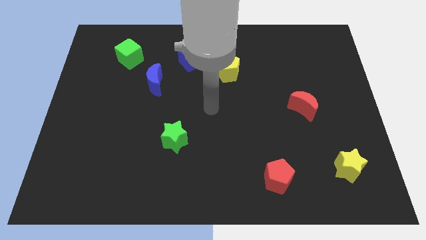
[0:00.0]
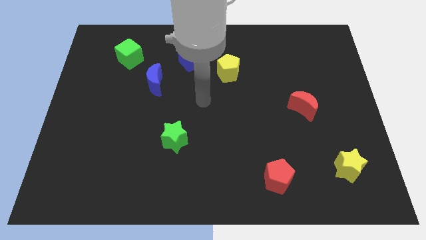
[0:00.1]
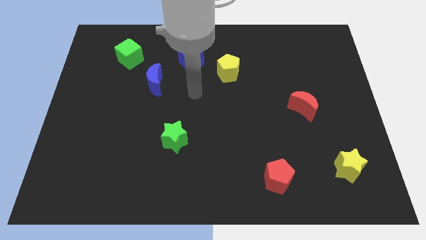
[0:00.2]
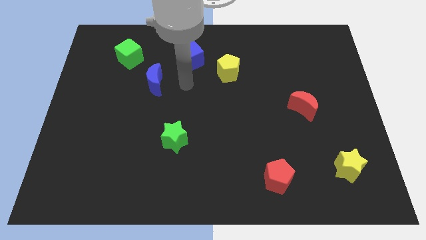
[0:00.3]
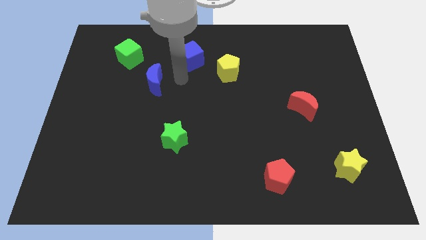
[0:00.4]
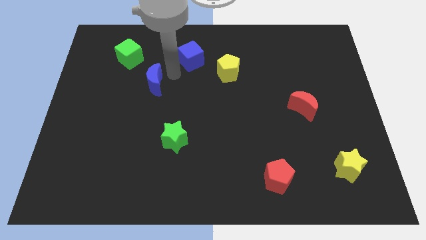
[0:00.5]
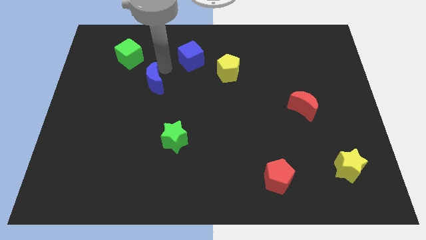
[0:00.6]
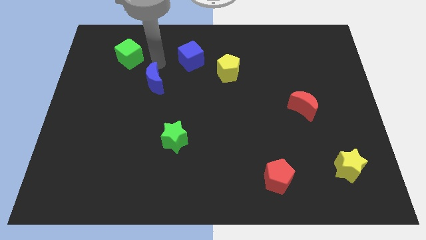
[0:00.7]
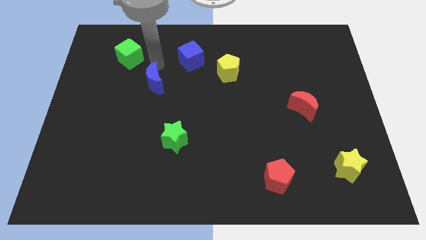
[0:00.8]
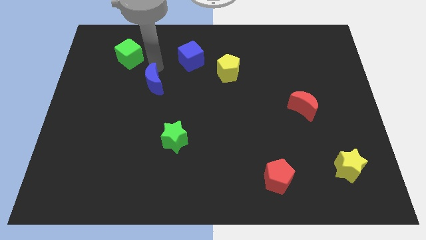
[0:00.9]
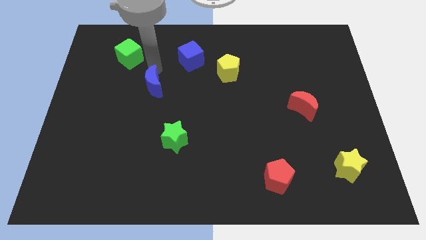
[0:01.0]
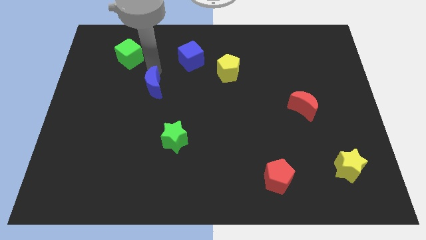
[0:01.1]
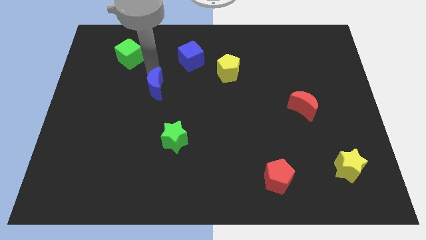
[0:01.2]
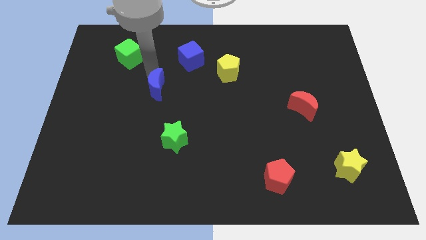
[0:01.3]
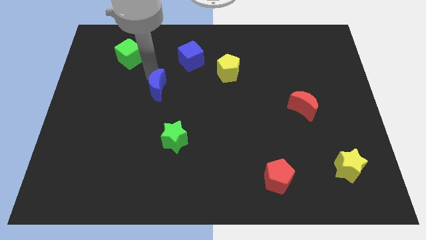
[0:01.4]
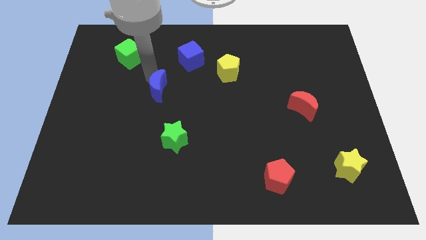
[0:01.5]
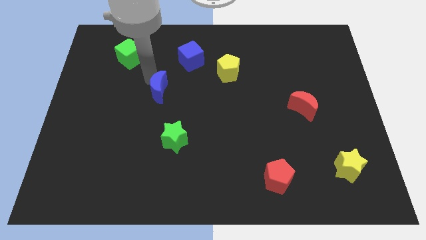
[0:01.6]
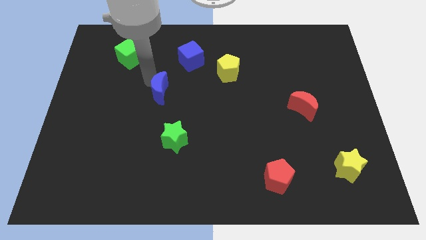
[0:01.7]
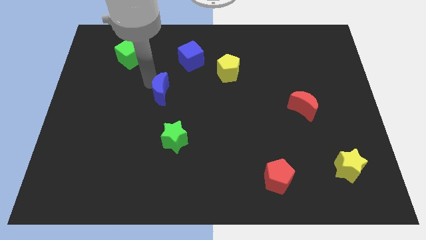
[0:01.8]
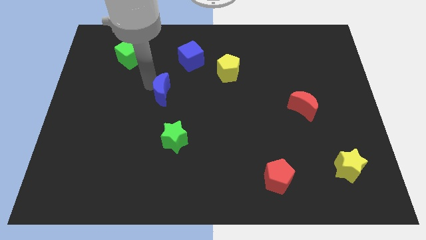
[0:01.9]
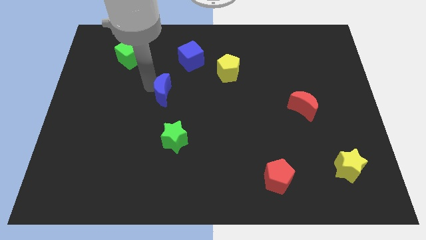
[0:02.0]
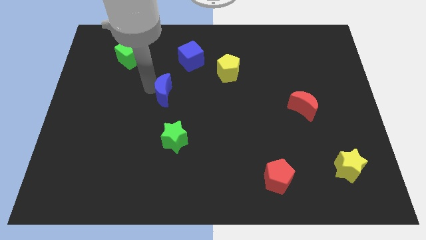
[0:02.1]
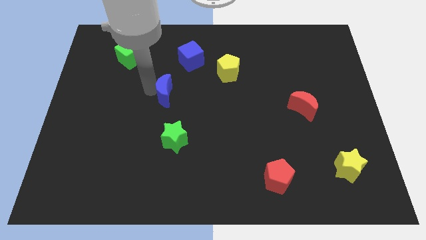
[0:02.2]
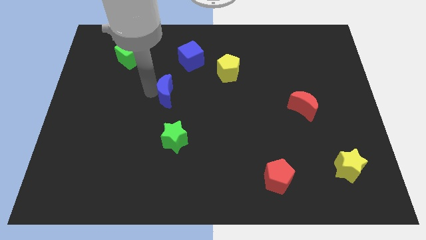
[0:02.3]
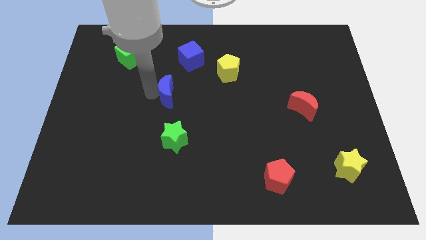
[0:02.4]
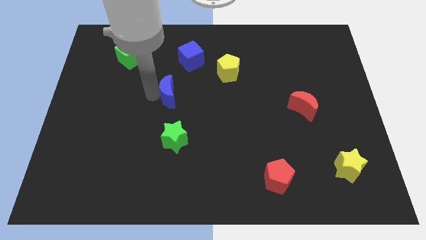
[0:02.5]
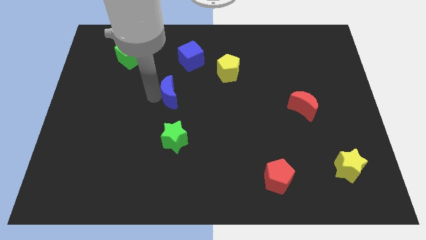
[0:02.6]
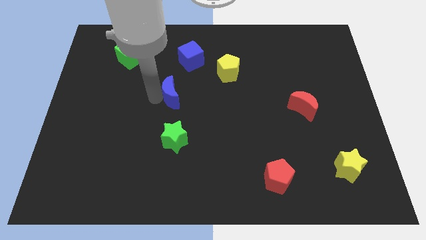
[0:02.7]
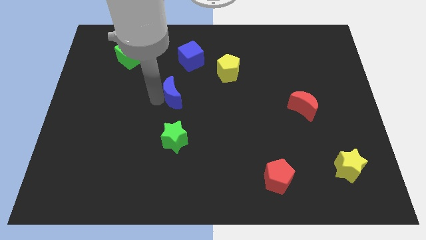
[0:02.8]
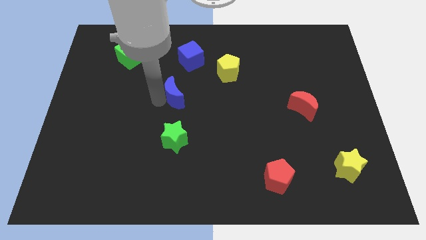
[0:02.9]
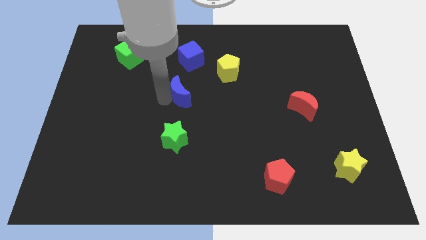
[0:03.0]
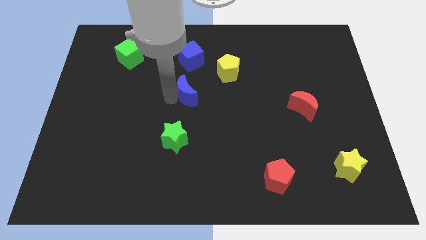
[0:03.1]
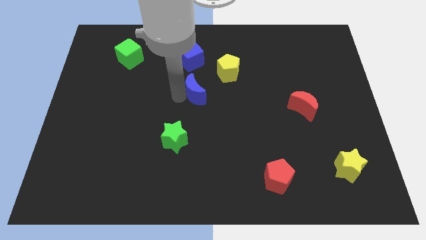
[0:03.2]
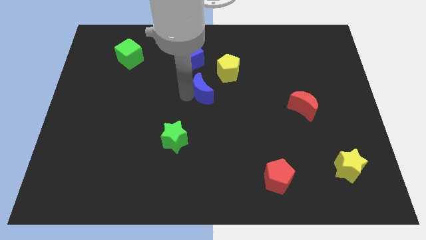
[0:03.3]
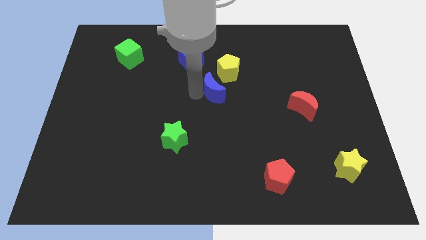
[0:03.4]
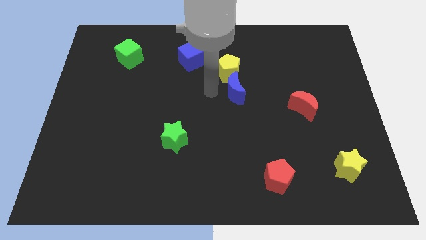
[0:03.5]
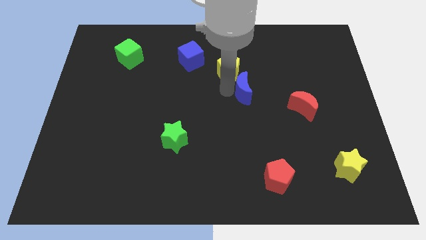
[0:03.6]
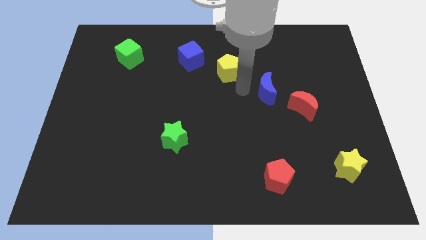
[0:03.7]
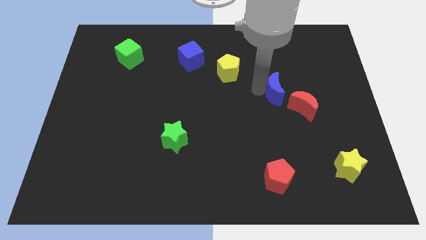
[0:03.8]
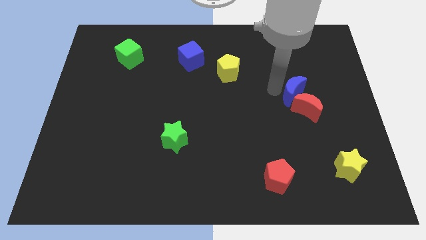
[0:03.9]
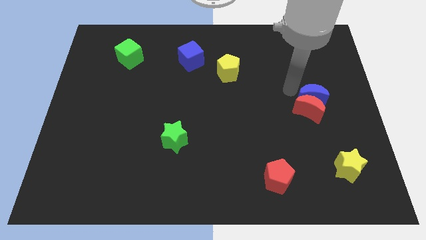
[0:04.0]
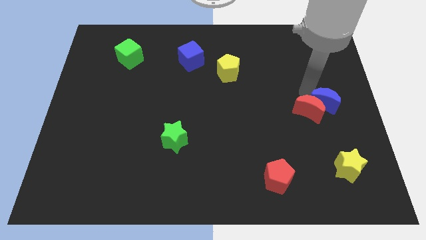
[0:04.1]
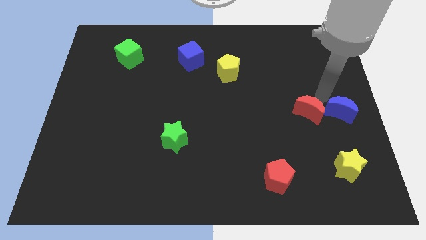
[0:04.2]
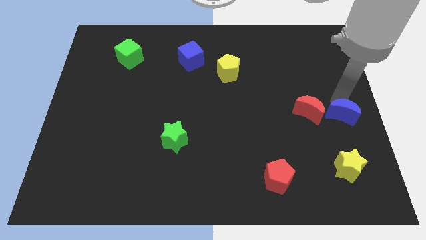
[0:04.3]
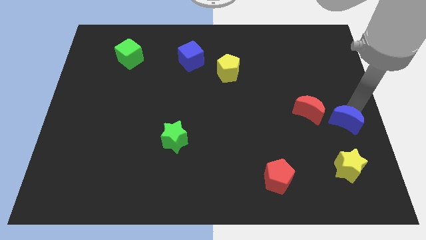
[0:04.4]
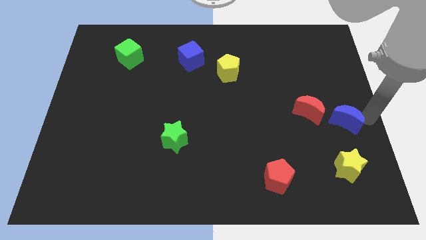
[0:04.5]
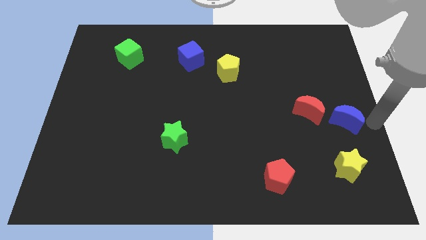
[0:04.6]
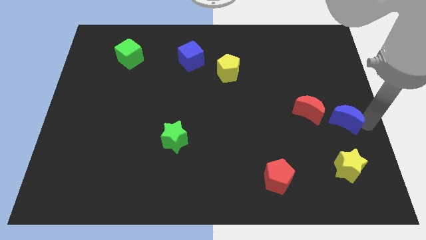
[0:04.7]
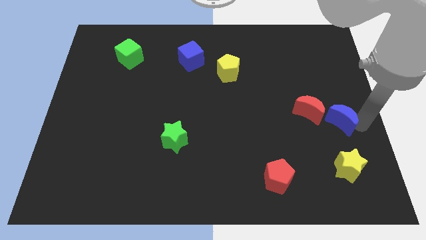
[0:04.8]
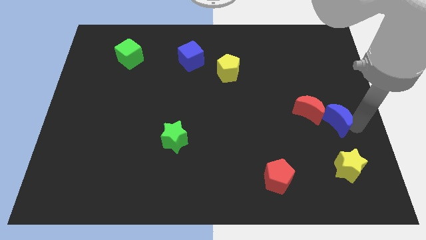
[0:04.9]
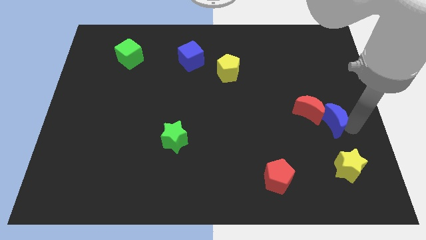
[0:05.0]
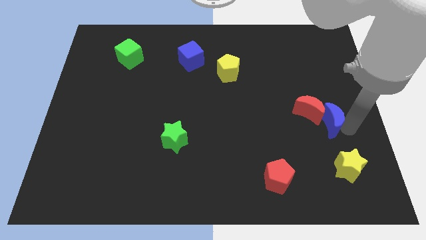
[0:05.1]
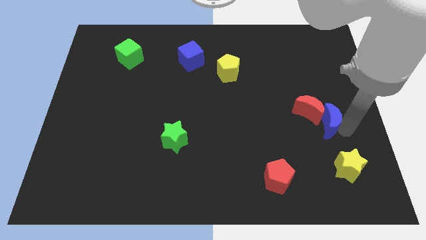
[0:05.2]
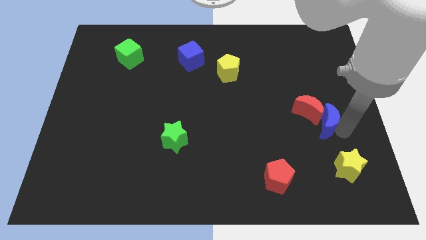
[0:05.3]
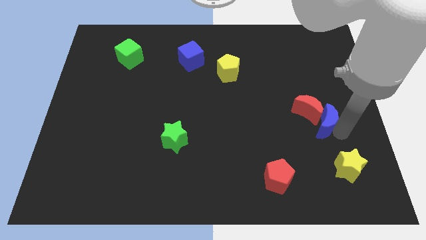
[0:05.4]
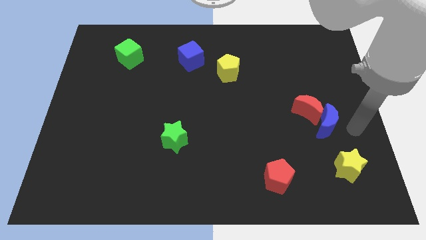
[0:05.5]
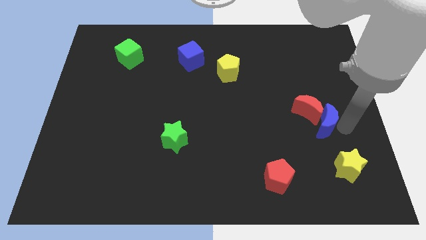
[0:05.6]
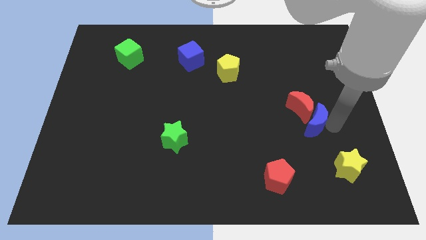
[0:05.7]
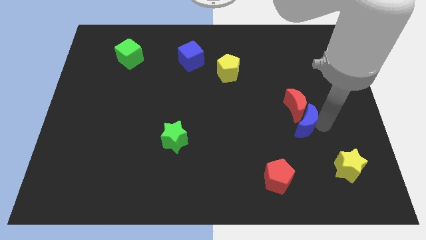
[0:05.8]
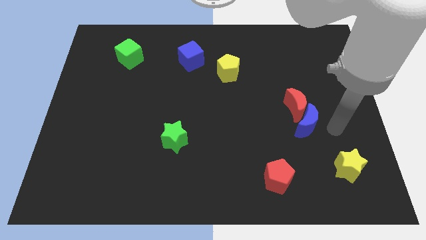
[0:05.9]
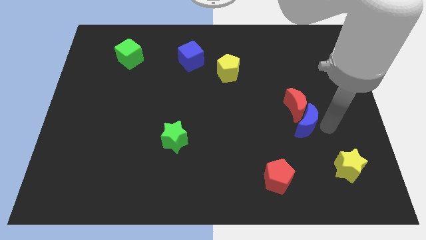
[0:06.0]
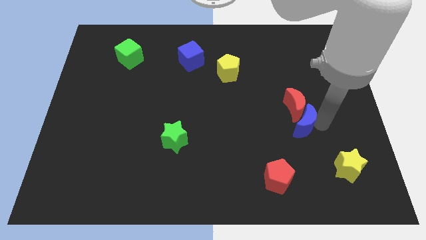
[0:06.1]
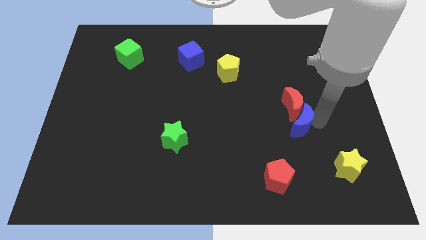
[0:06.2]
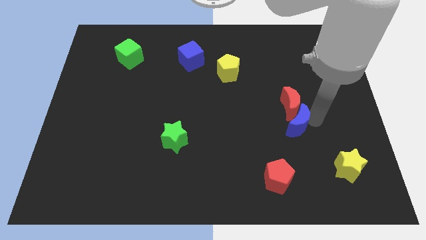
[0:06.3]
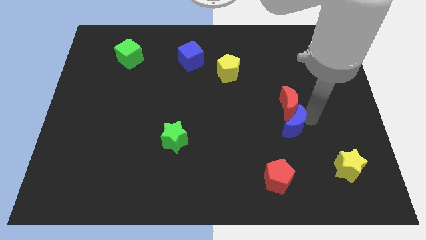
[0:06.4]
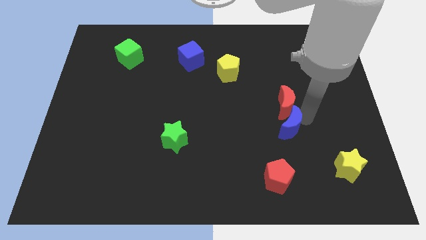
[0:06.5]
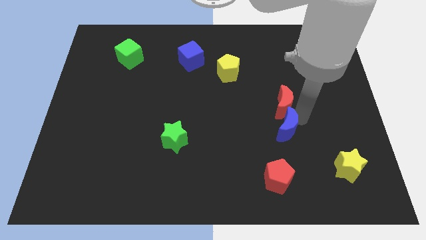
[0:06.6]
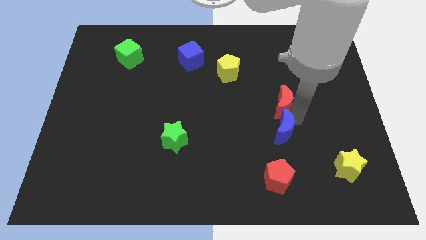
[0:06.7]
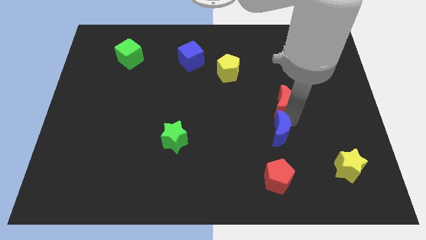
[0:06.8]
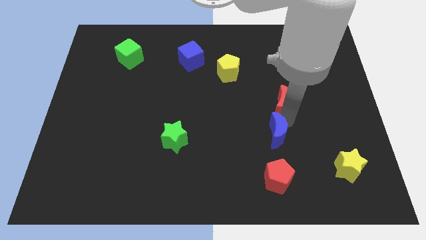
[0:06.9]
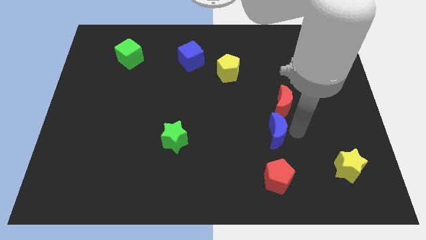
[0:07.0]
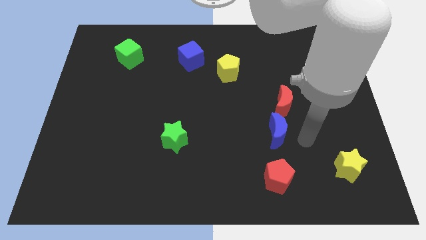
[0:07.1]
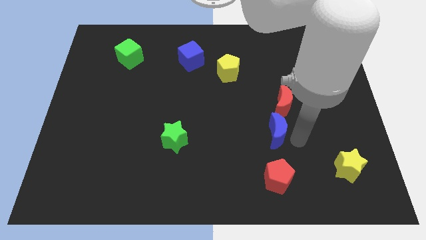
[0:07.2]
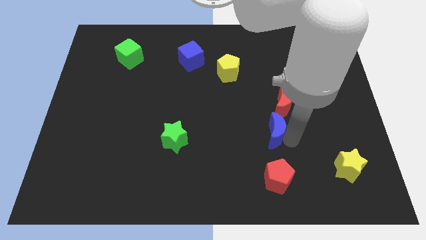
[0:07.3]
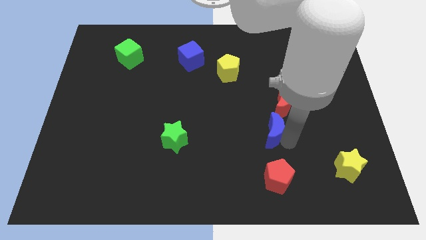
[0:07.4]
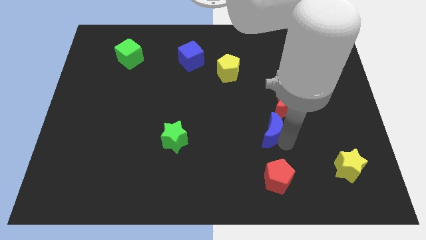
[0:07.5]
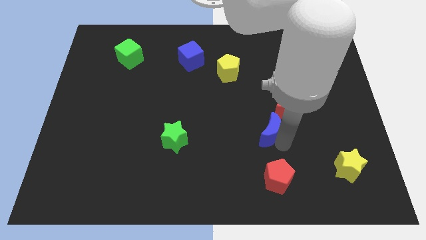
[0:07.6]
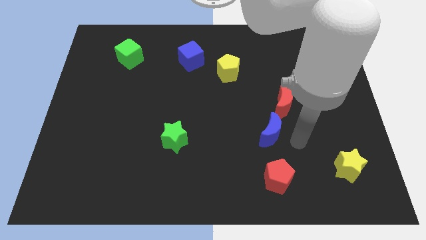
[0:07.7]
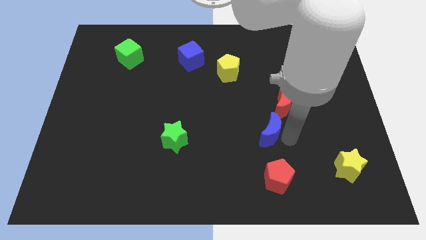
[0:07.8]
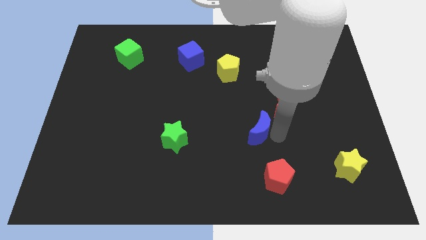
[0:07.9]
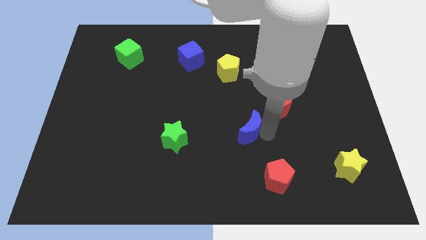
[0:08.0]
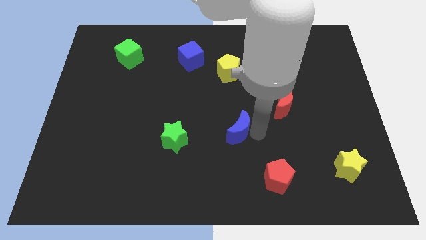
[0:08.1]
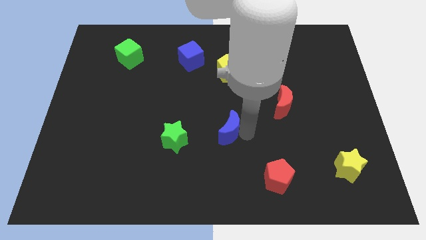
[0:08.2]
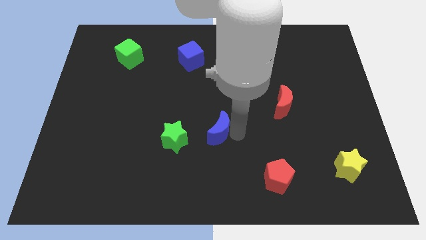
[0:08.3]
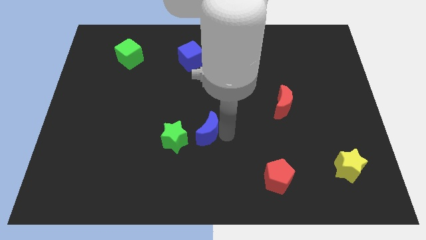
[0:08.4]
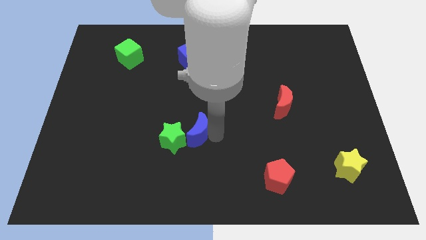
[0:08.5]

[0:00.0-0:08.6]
push the blue moon downwards somewhat
